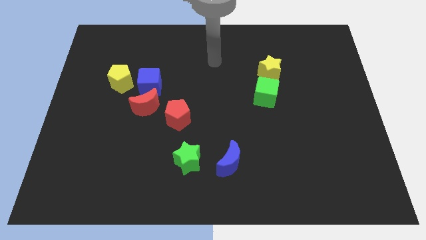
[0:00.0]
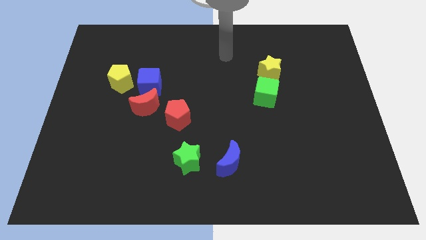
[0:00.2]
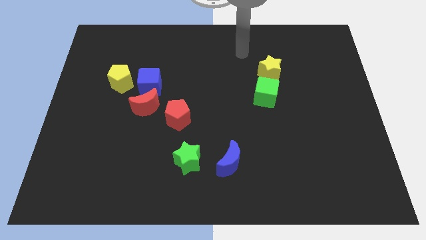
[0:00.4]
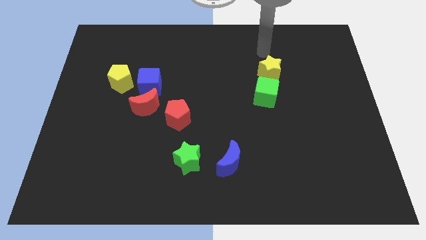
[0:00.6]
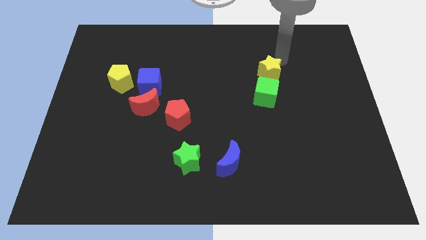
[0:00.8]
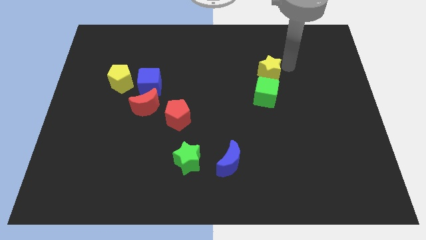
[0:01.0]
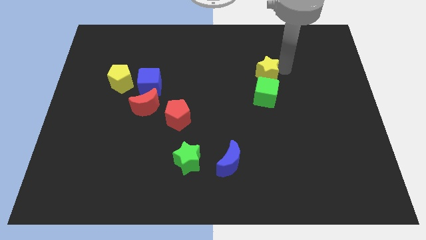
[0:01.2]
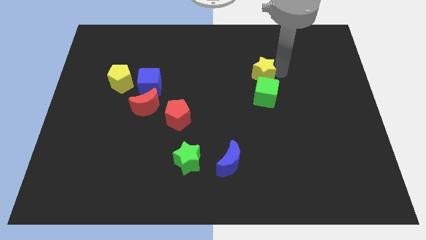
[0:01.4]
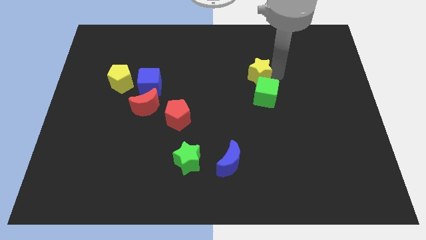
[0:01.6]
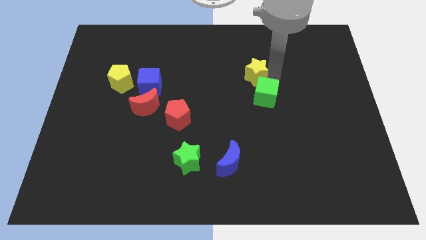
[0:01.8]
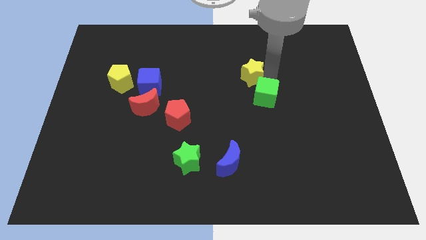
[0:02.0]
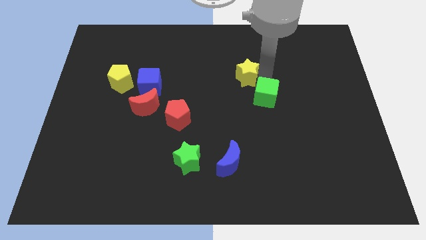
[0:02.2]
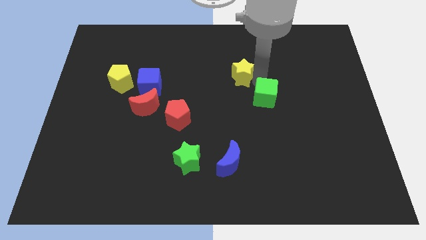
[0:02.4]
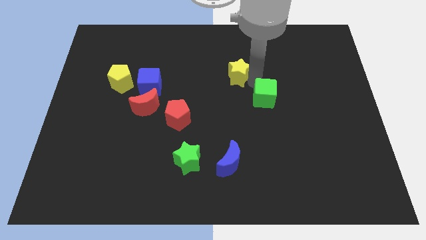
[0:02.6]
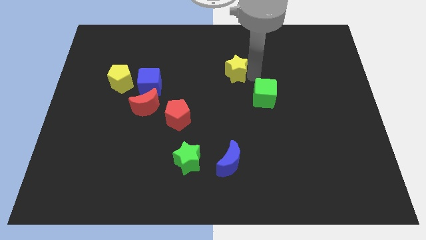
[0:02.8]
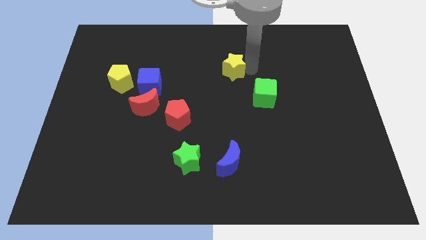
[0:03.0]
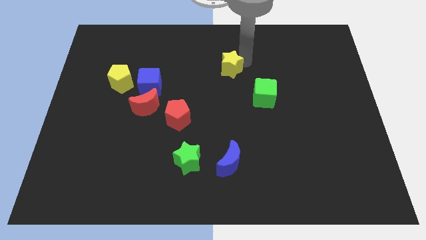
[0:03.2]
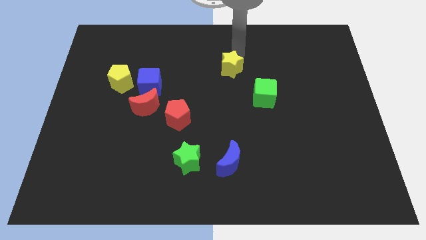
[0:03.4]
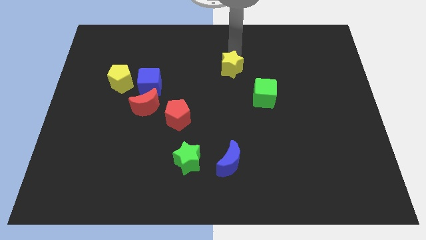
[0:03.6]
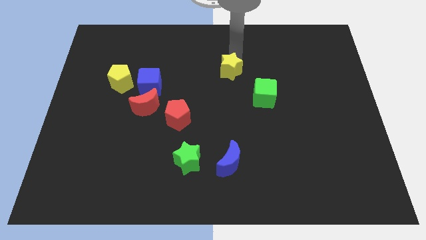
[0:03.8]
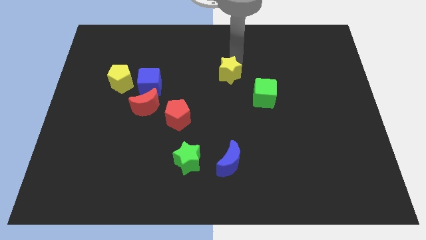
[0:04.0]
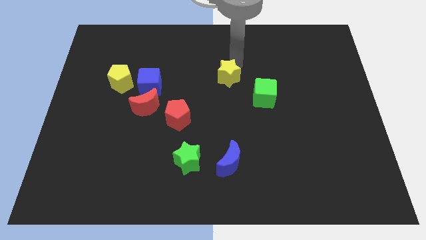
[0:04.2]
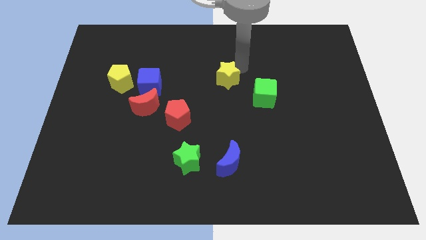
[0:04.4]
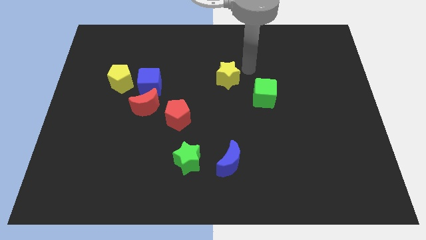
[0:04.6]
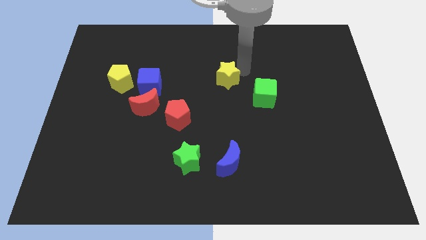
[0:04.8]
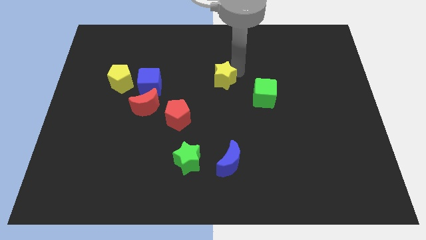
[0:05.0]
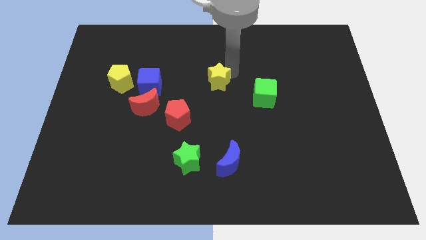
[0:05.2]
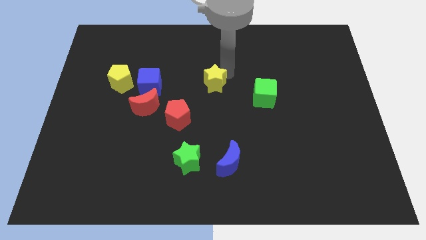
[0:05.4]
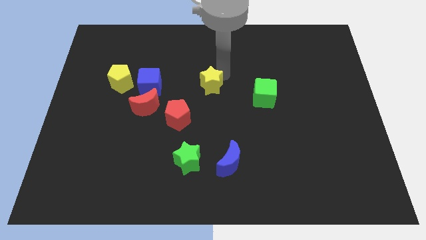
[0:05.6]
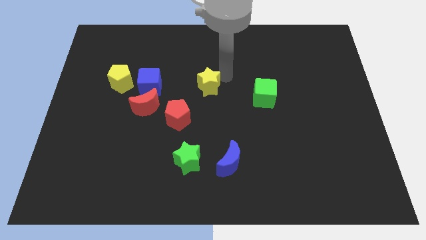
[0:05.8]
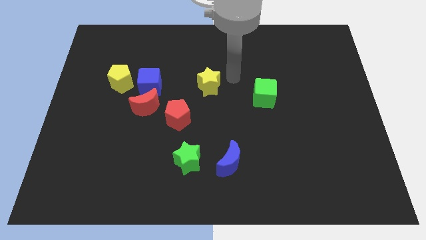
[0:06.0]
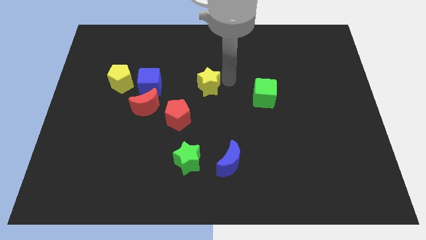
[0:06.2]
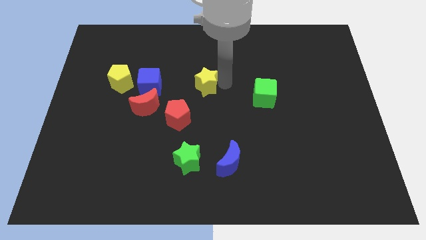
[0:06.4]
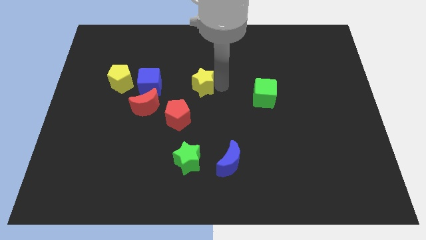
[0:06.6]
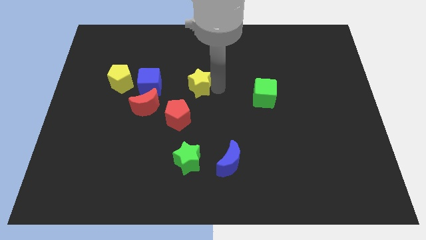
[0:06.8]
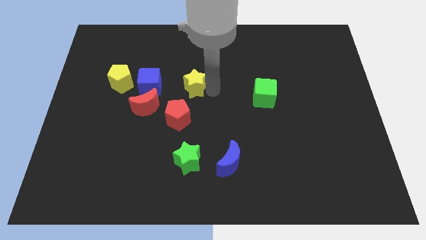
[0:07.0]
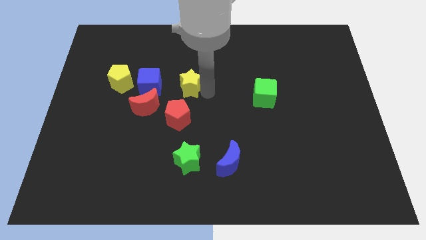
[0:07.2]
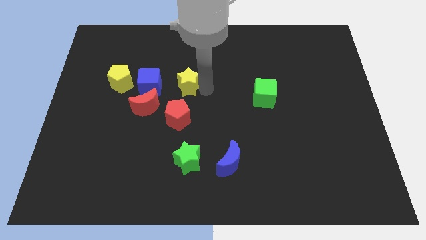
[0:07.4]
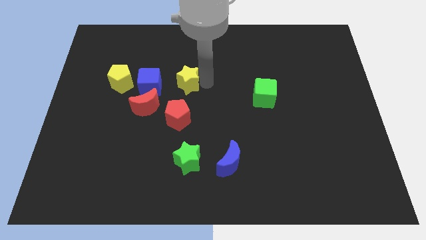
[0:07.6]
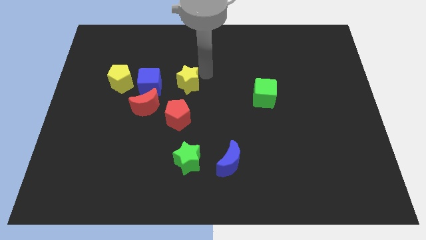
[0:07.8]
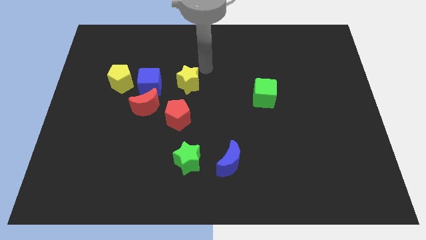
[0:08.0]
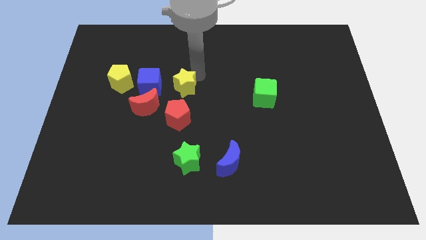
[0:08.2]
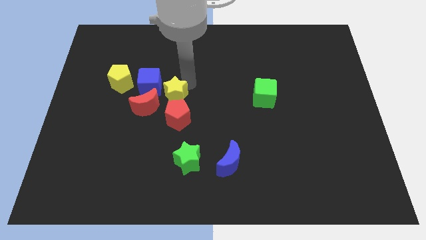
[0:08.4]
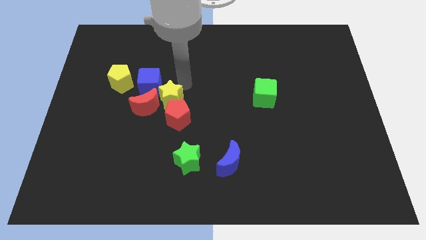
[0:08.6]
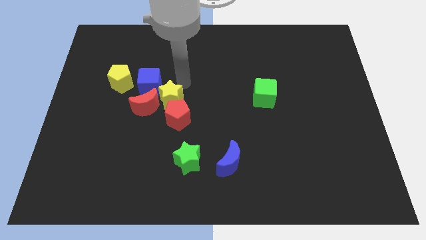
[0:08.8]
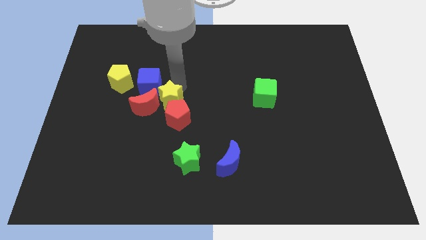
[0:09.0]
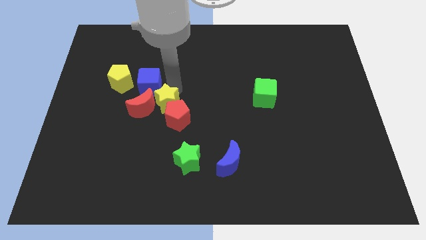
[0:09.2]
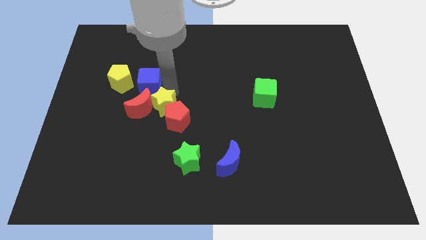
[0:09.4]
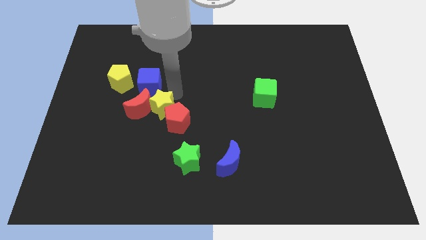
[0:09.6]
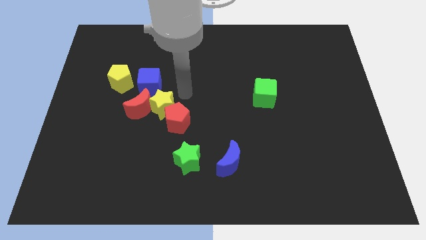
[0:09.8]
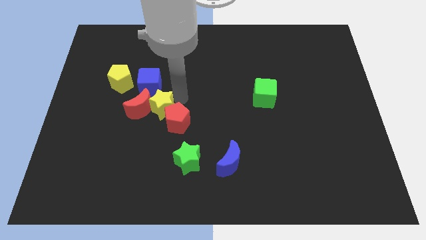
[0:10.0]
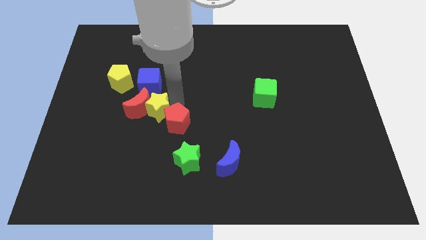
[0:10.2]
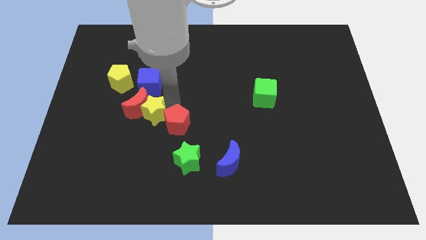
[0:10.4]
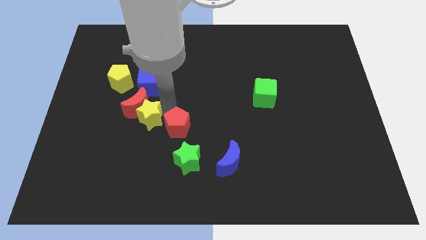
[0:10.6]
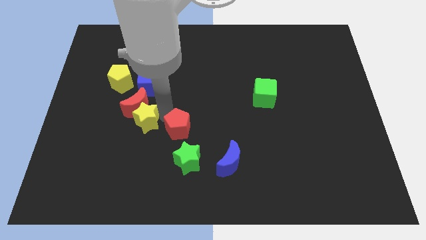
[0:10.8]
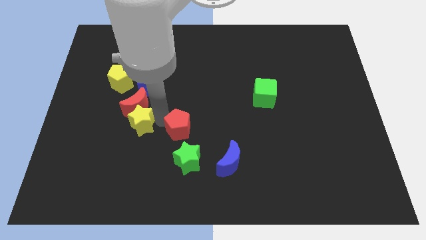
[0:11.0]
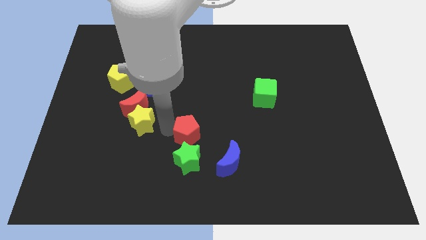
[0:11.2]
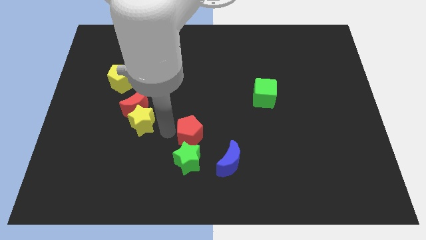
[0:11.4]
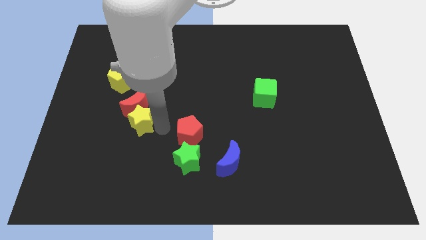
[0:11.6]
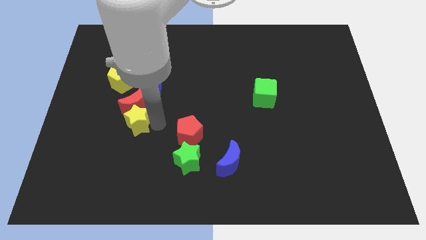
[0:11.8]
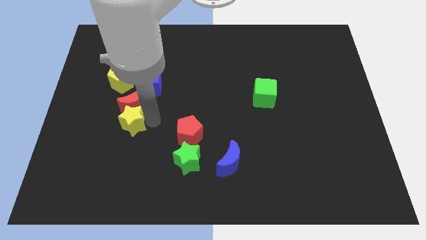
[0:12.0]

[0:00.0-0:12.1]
put the yellow star to the bottom of the yellow pentagon

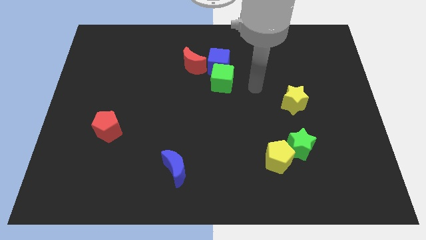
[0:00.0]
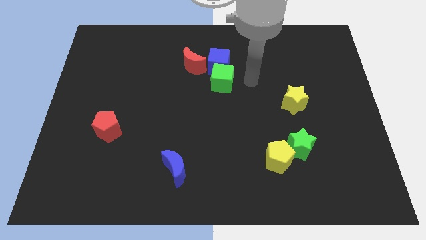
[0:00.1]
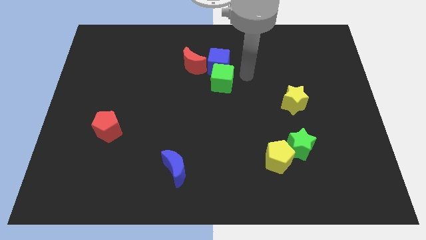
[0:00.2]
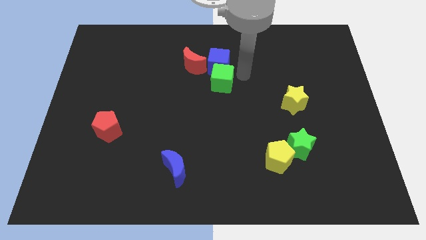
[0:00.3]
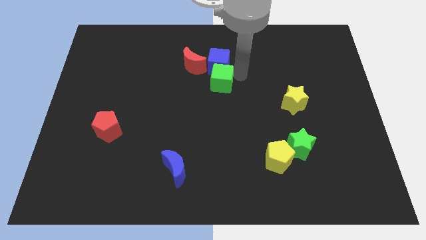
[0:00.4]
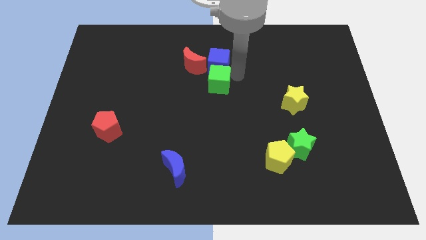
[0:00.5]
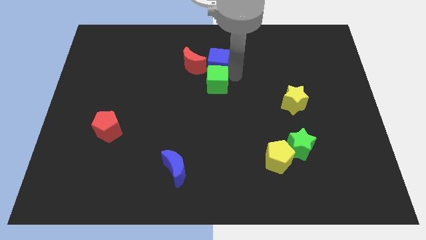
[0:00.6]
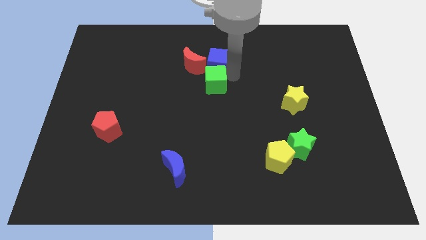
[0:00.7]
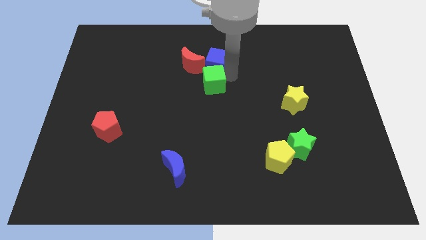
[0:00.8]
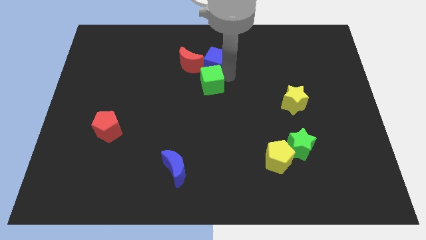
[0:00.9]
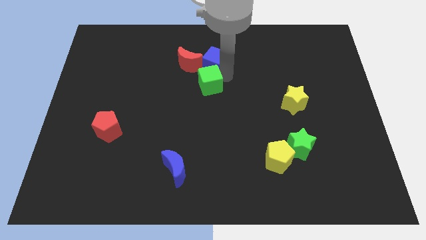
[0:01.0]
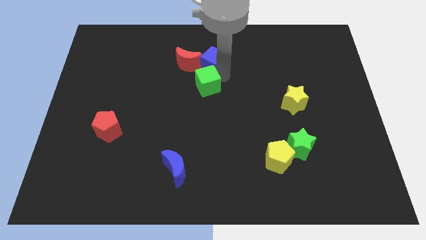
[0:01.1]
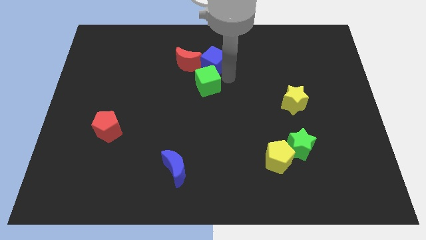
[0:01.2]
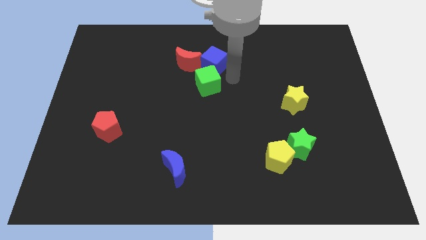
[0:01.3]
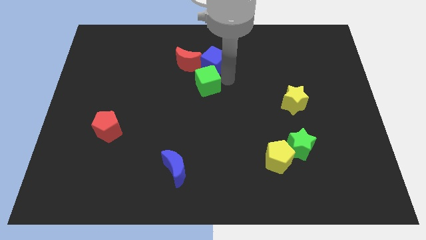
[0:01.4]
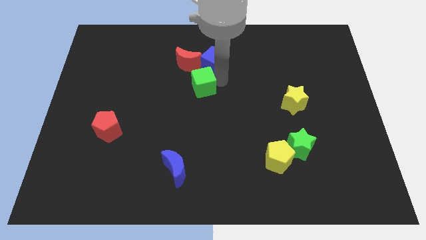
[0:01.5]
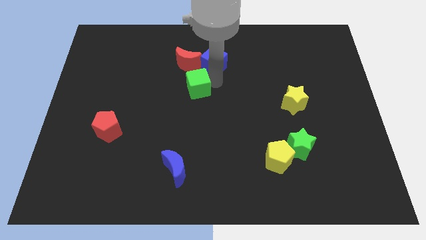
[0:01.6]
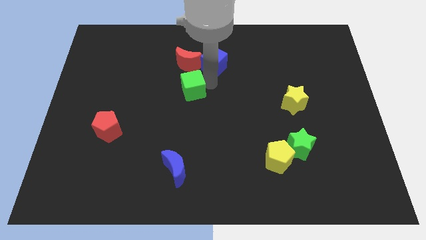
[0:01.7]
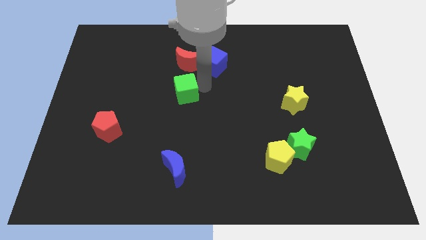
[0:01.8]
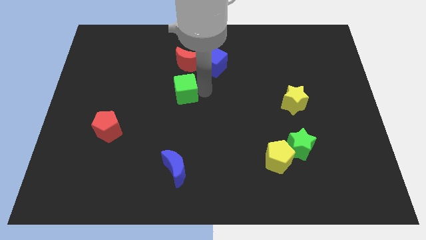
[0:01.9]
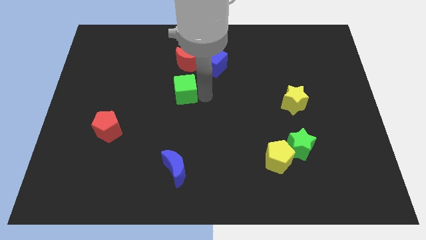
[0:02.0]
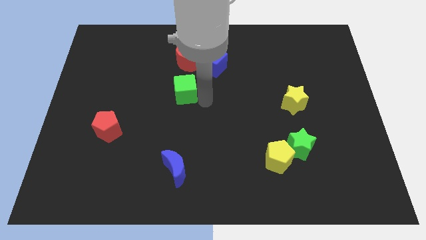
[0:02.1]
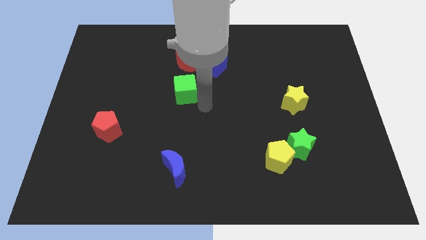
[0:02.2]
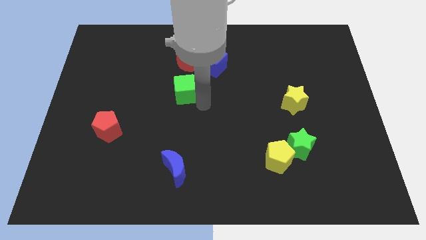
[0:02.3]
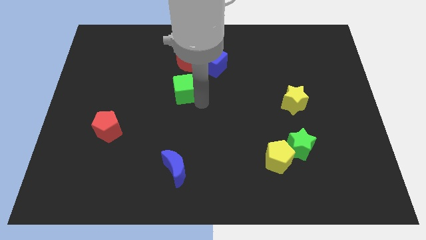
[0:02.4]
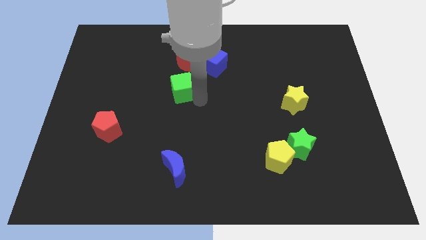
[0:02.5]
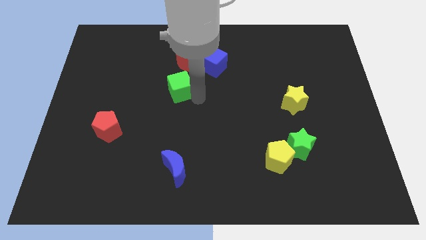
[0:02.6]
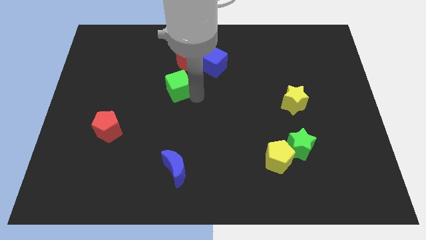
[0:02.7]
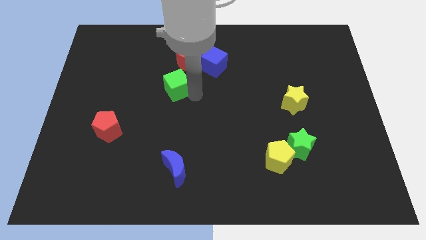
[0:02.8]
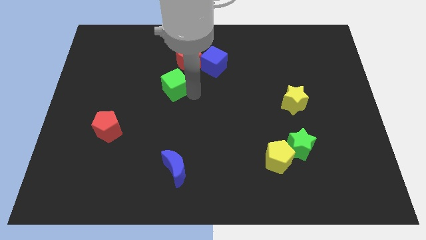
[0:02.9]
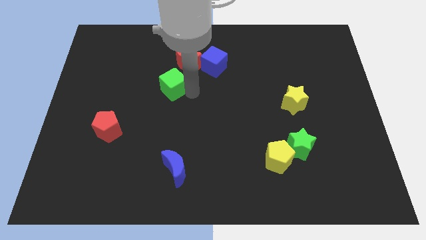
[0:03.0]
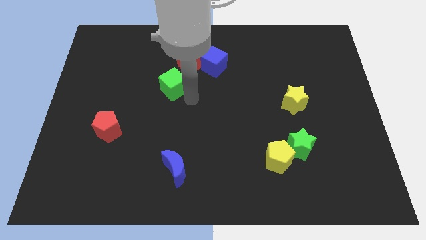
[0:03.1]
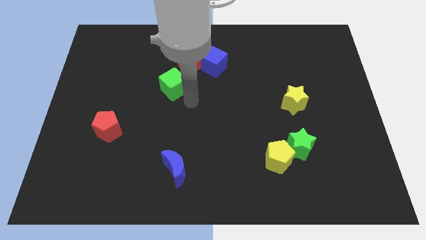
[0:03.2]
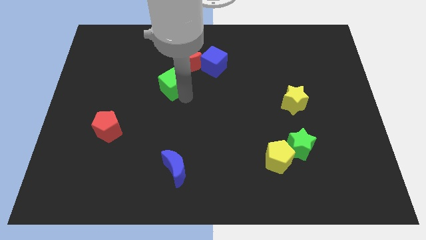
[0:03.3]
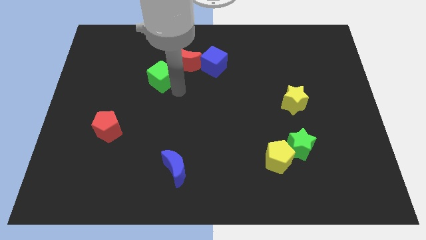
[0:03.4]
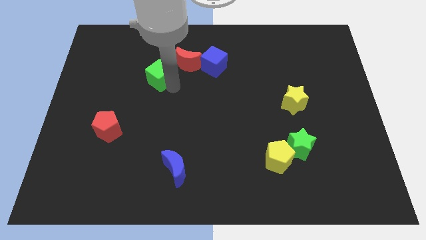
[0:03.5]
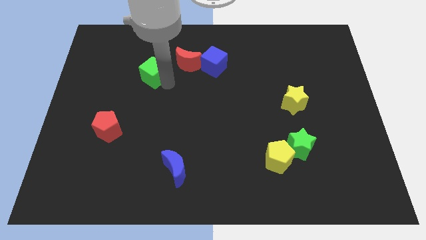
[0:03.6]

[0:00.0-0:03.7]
move the green cube to the left side of the red moon
